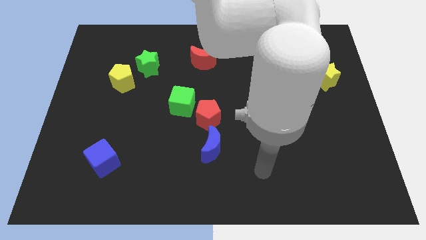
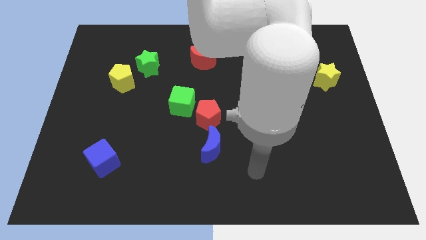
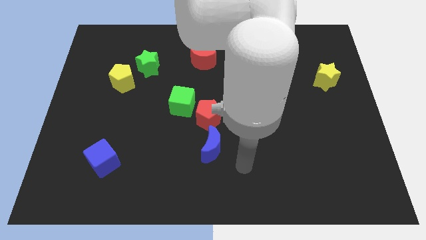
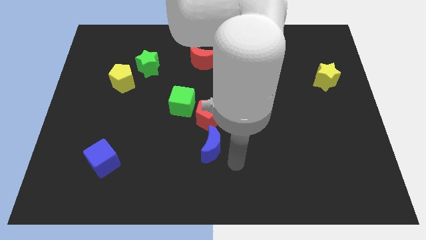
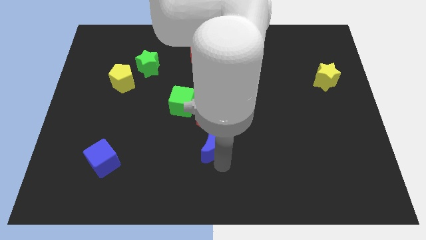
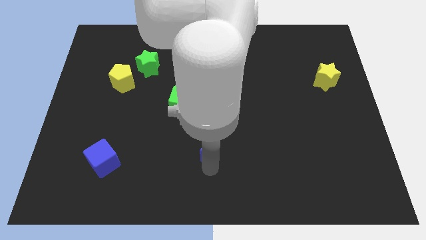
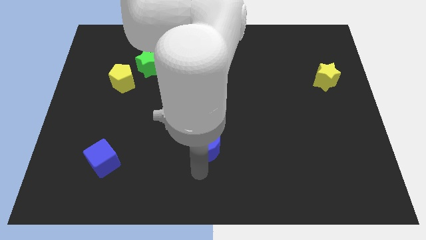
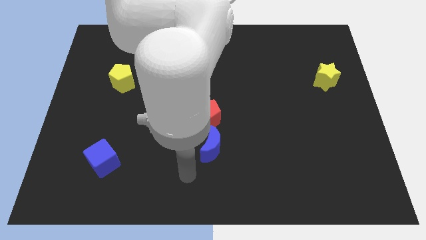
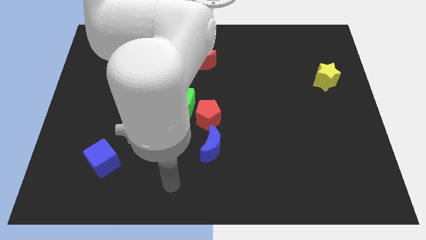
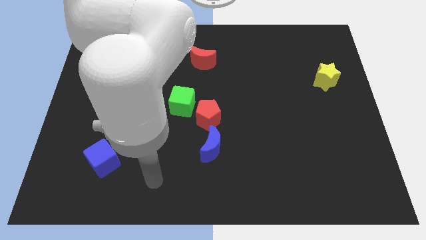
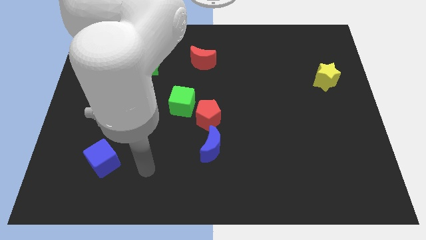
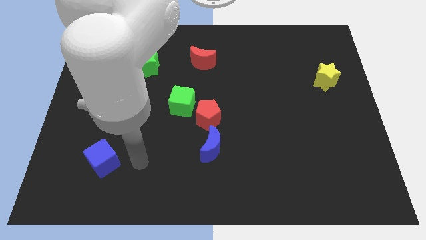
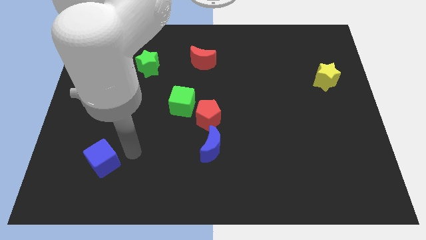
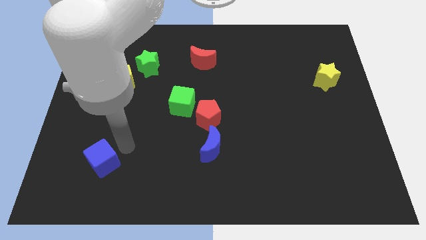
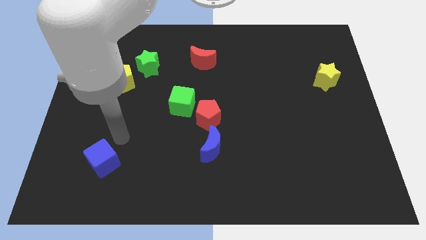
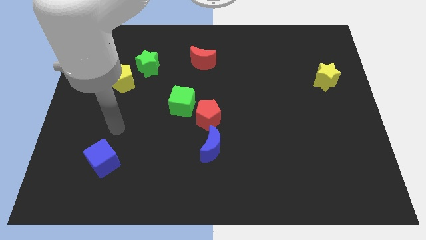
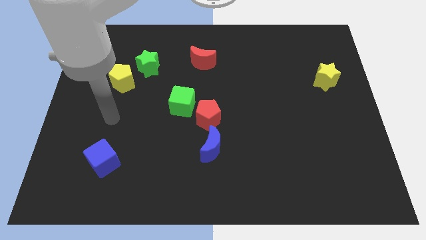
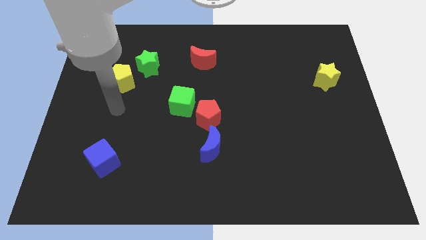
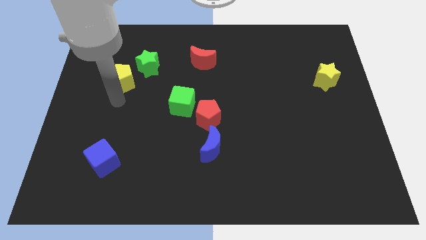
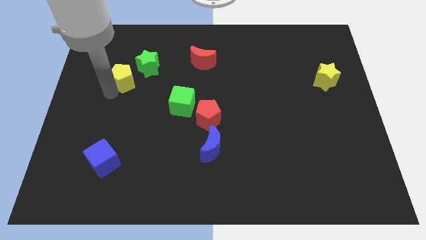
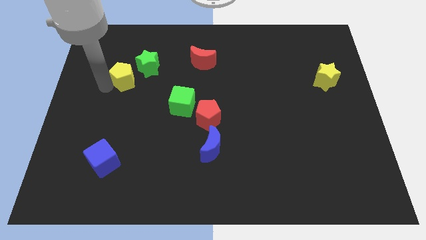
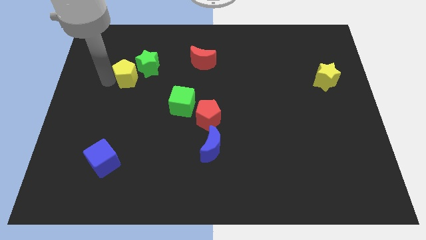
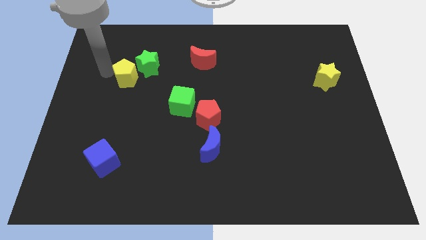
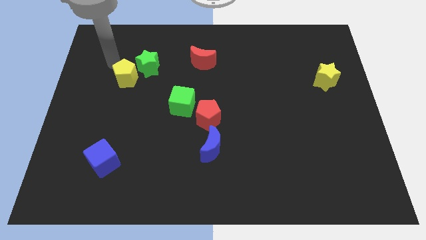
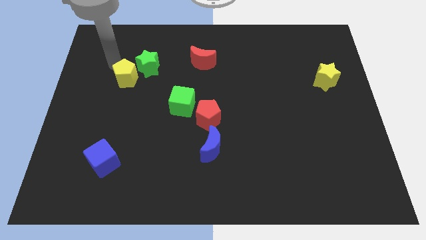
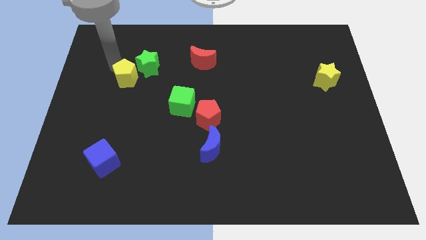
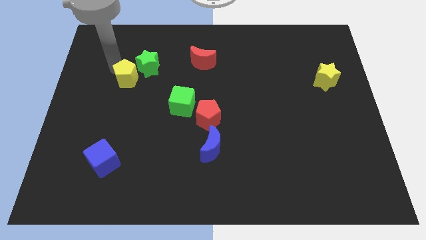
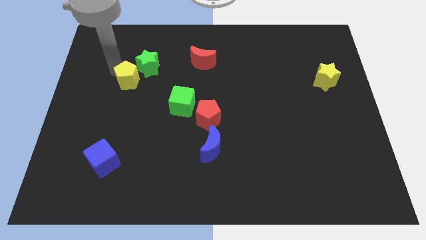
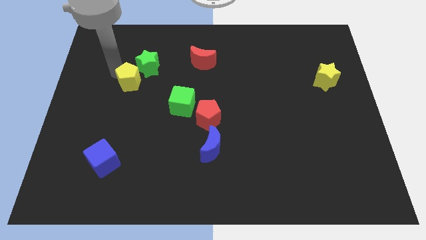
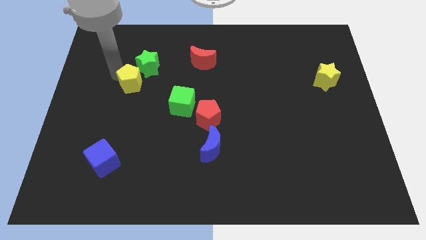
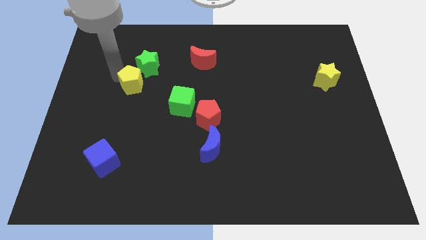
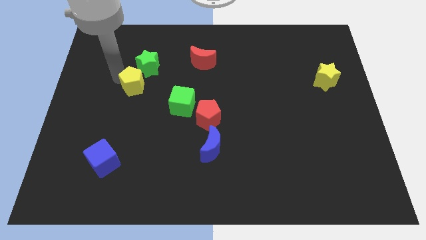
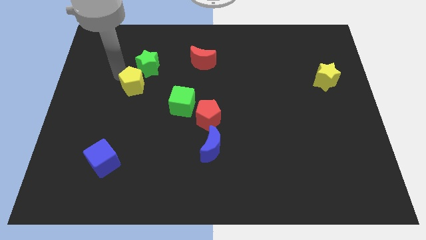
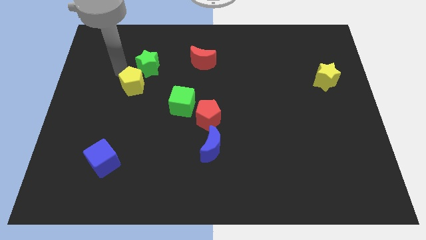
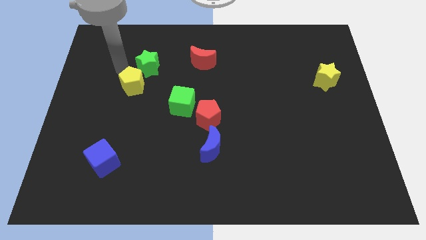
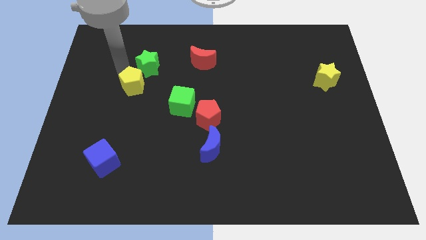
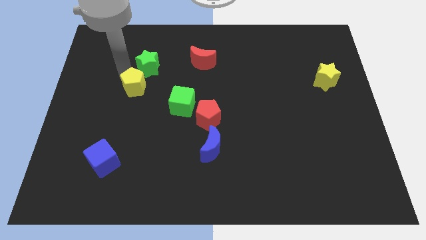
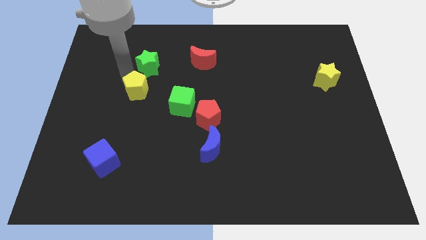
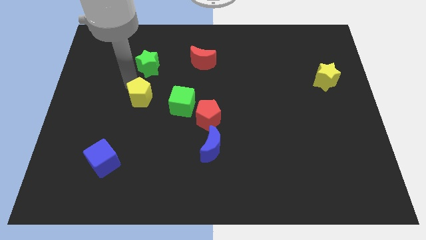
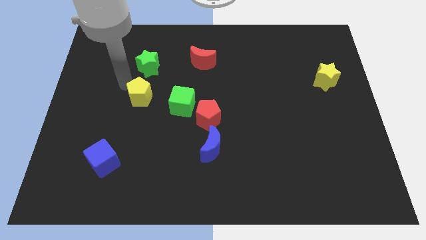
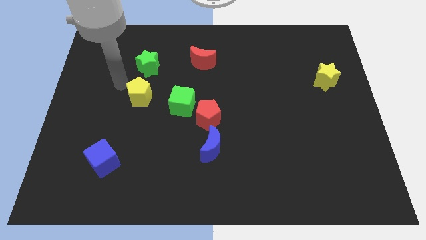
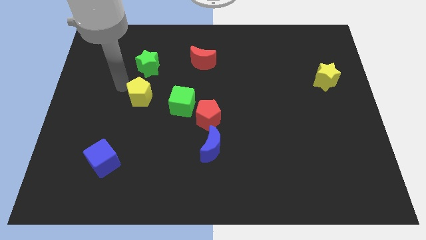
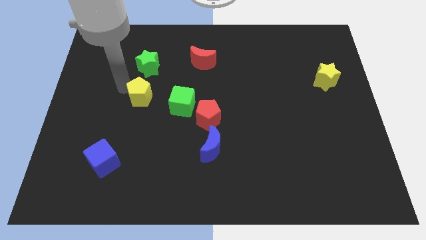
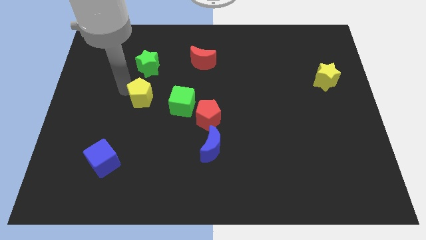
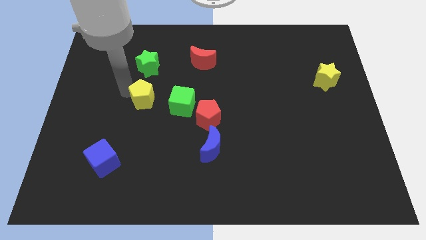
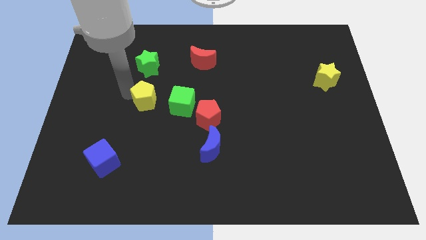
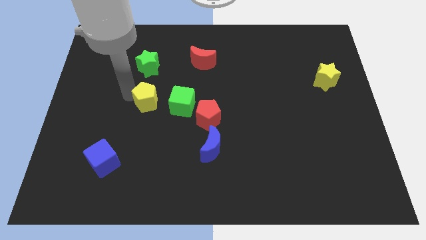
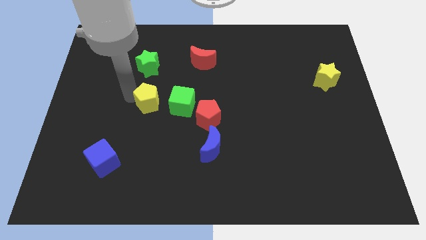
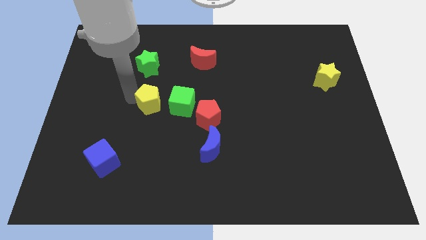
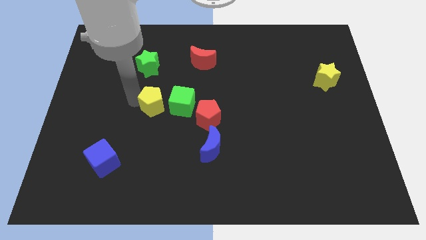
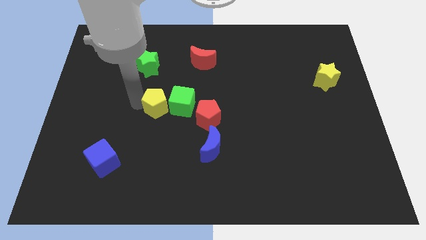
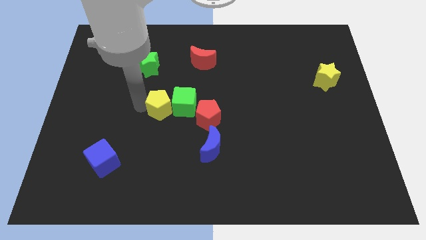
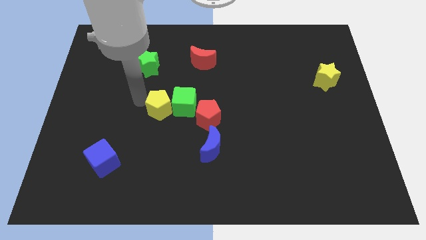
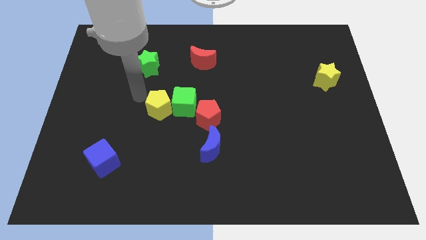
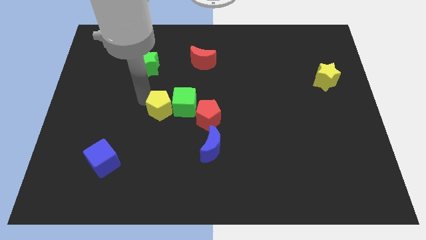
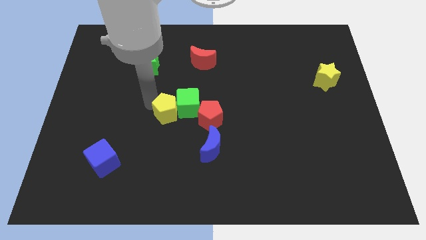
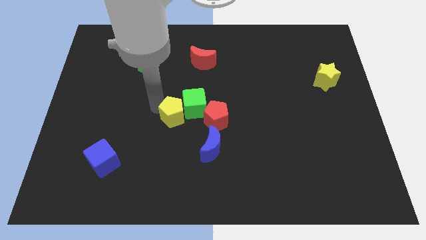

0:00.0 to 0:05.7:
push the yellow pentagon to the top left side of the blue moon
